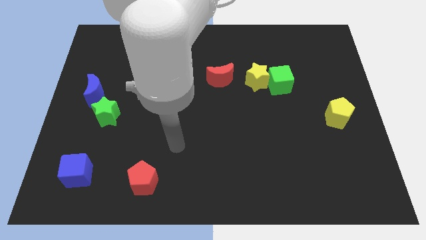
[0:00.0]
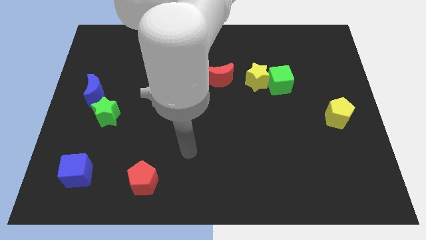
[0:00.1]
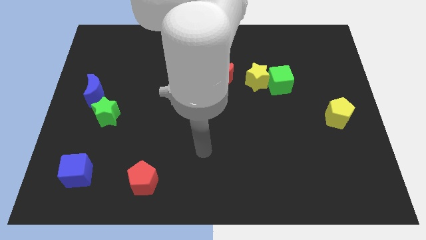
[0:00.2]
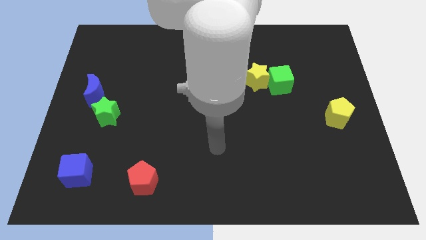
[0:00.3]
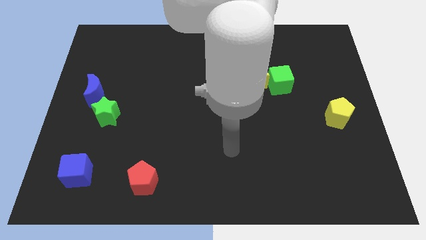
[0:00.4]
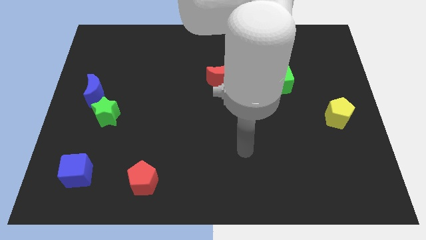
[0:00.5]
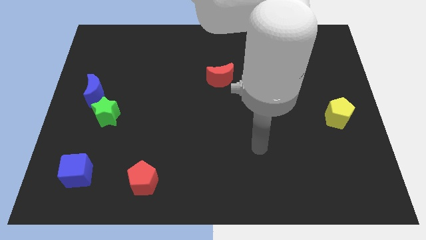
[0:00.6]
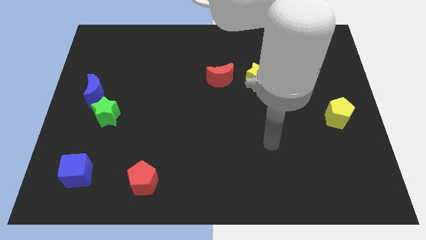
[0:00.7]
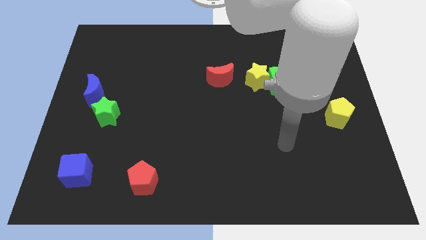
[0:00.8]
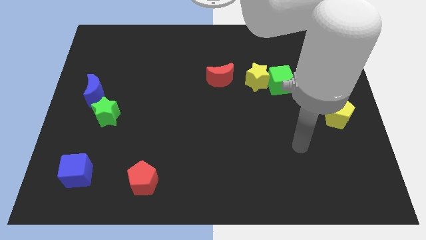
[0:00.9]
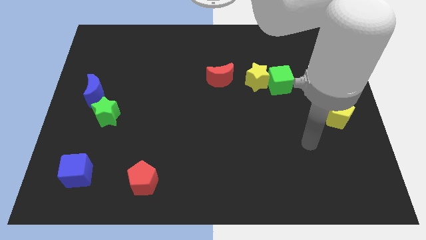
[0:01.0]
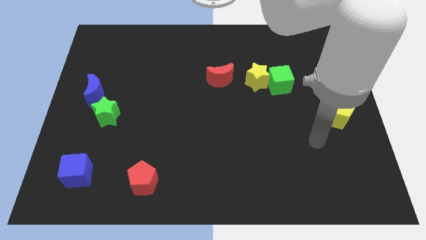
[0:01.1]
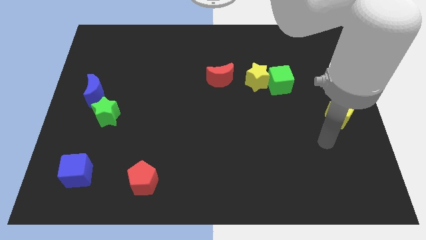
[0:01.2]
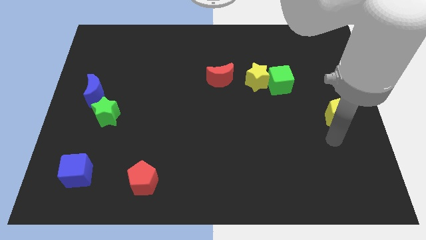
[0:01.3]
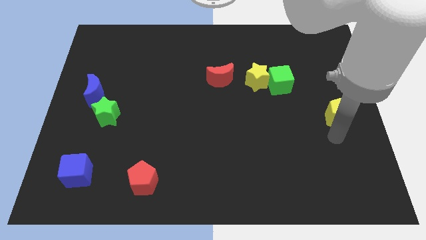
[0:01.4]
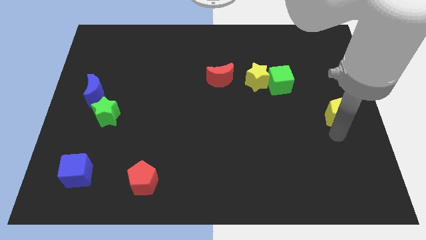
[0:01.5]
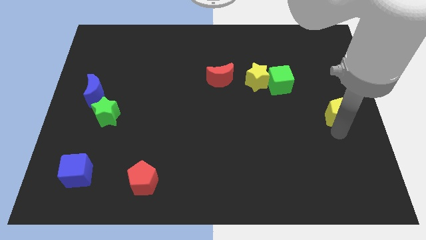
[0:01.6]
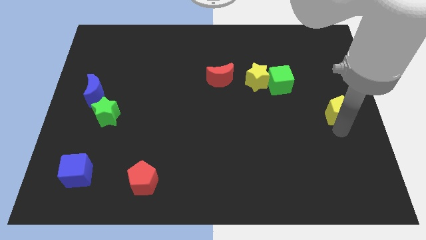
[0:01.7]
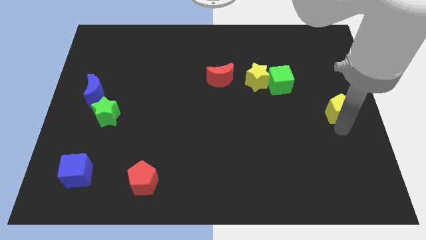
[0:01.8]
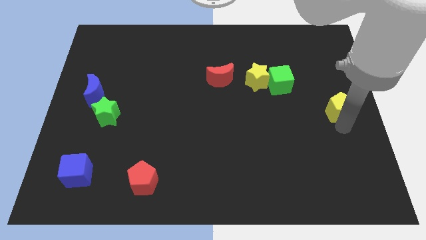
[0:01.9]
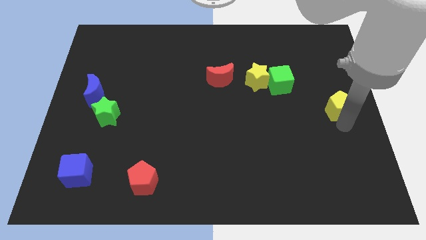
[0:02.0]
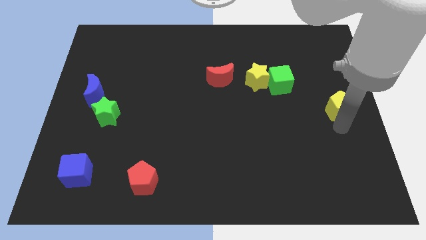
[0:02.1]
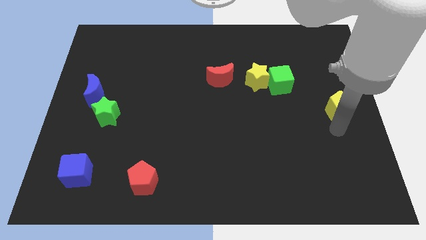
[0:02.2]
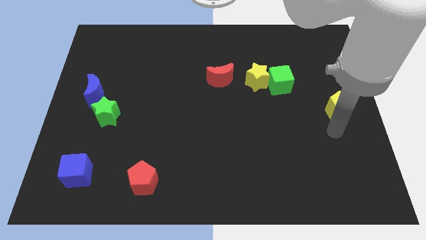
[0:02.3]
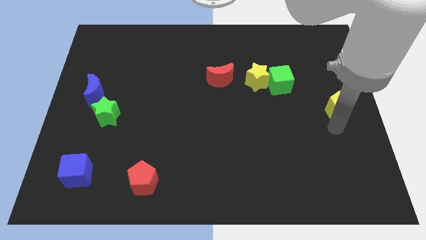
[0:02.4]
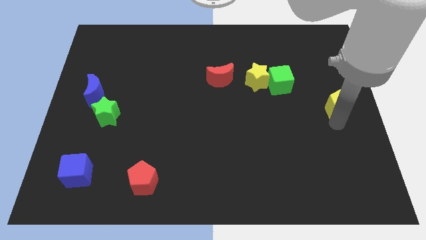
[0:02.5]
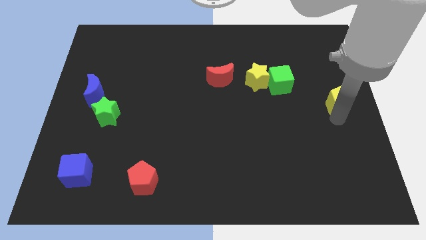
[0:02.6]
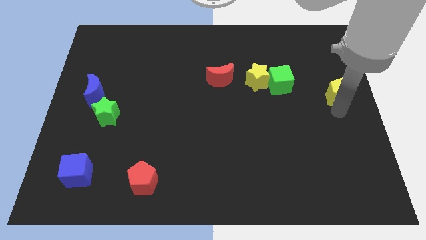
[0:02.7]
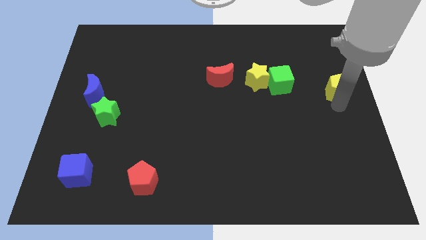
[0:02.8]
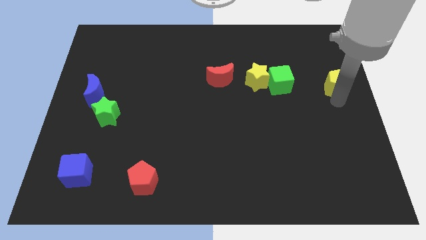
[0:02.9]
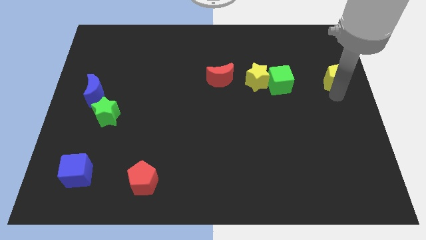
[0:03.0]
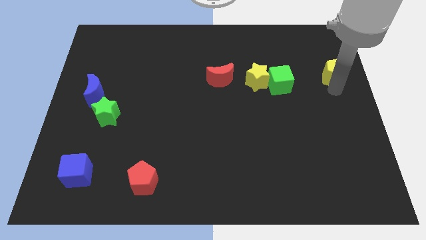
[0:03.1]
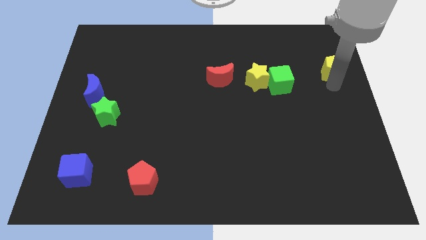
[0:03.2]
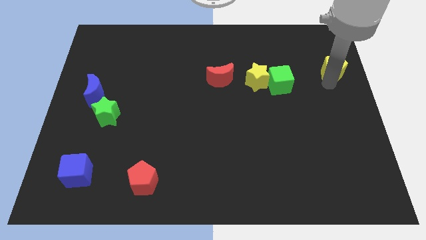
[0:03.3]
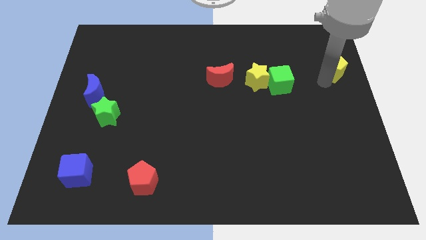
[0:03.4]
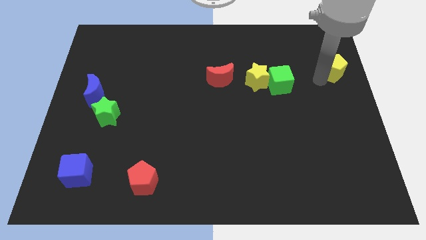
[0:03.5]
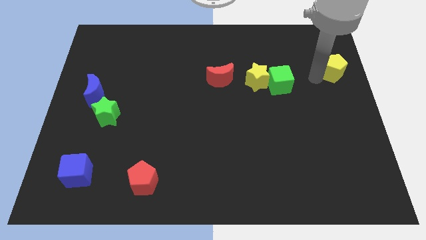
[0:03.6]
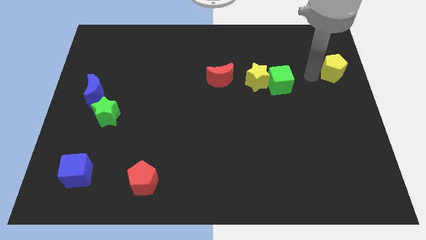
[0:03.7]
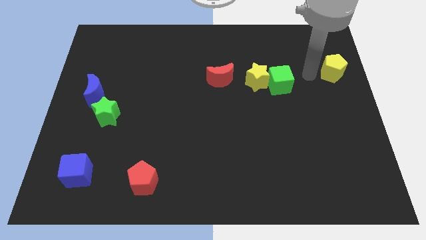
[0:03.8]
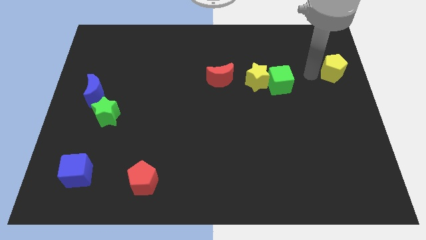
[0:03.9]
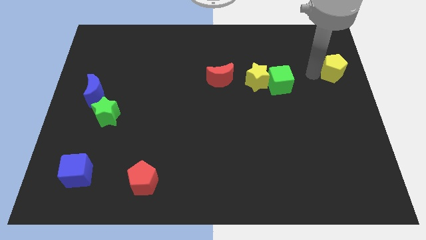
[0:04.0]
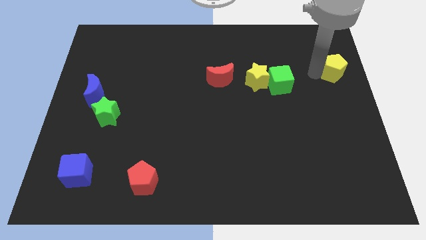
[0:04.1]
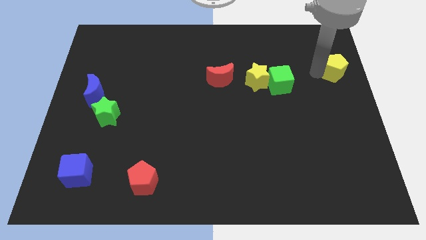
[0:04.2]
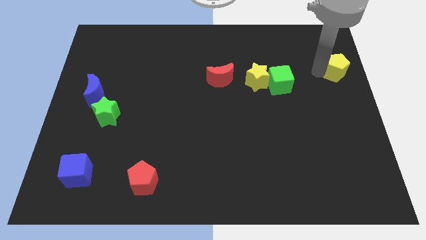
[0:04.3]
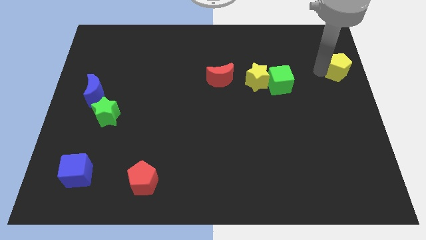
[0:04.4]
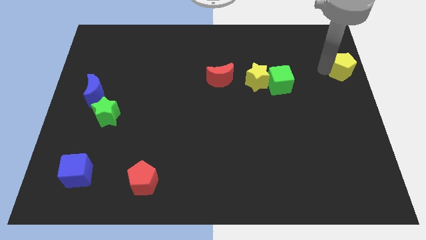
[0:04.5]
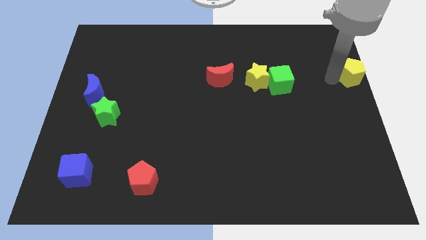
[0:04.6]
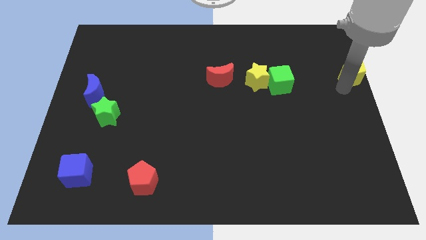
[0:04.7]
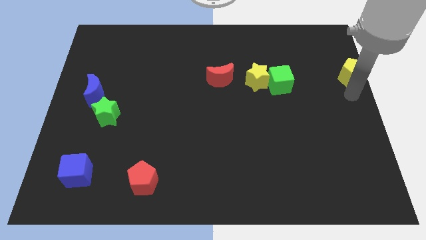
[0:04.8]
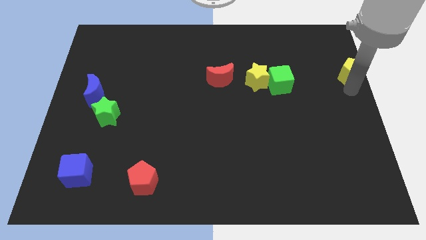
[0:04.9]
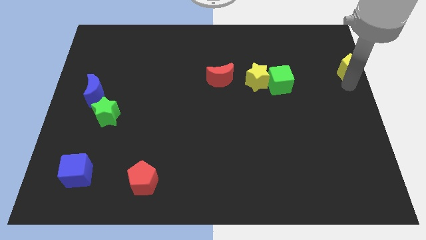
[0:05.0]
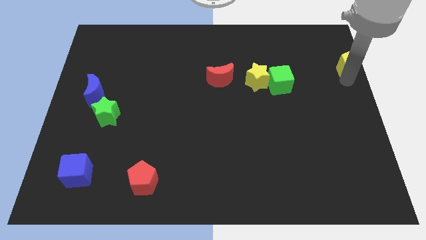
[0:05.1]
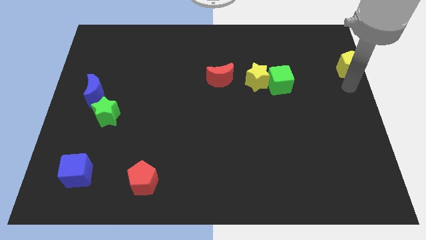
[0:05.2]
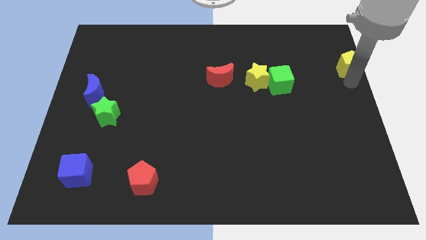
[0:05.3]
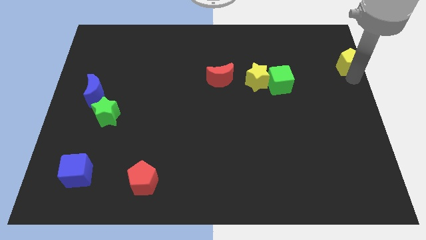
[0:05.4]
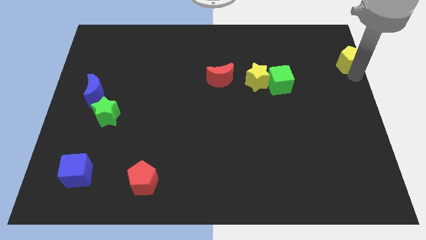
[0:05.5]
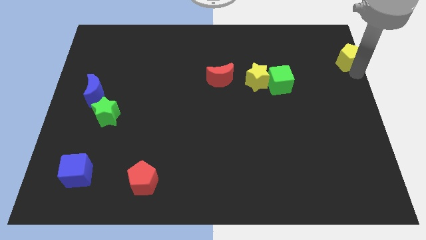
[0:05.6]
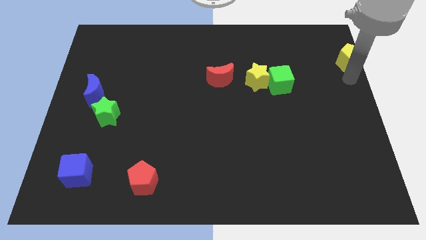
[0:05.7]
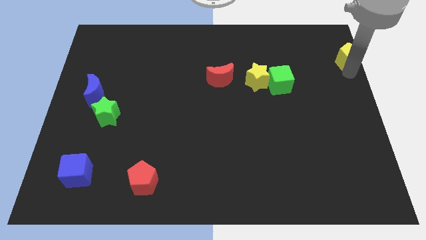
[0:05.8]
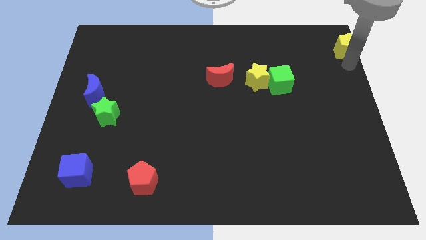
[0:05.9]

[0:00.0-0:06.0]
push the yellow pentagon to the top right of the board
